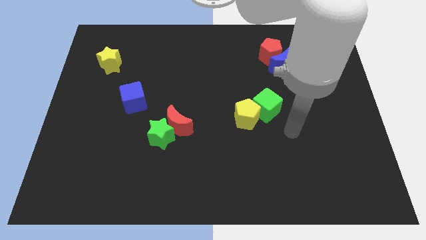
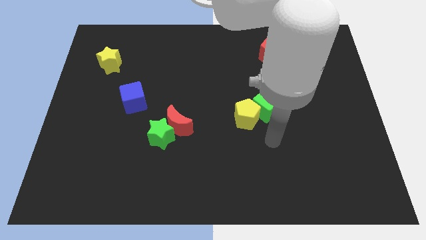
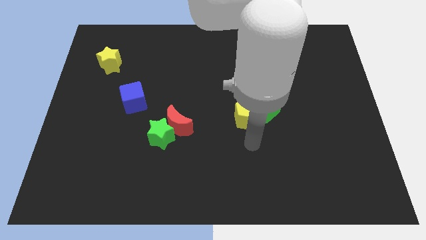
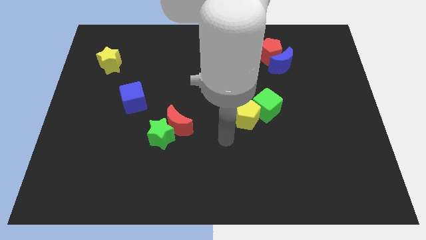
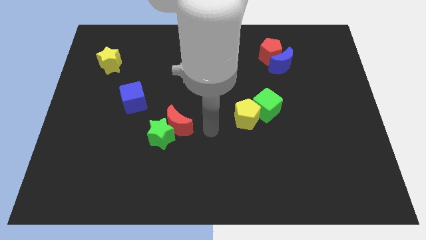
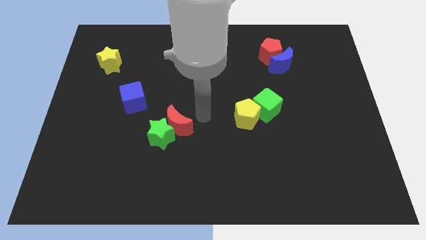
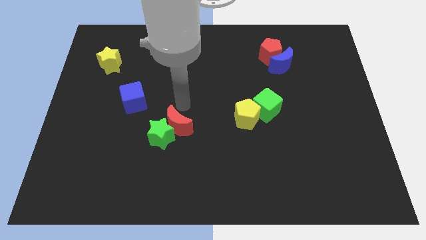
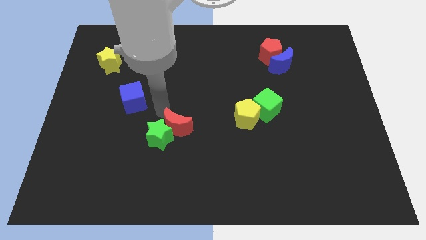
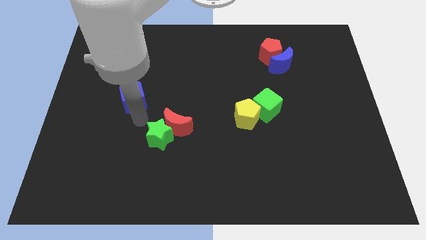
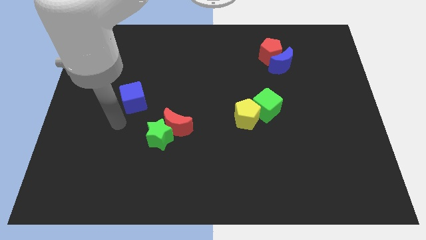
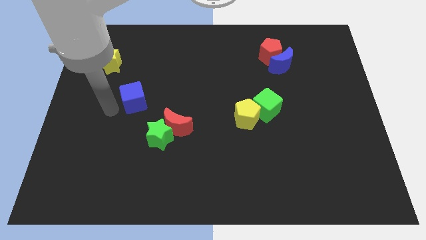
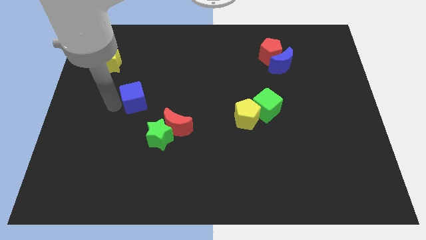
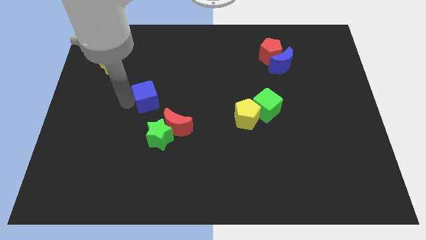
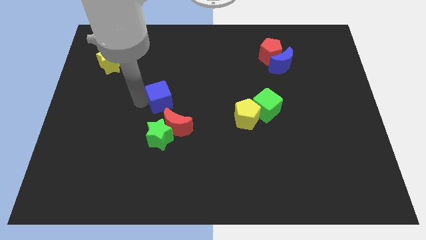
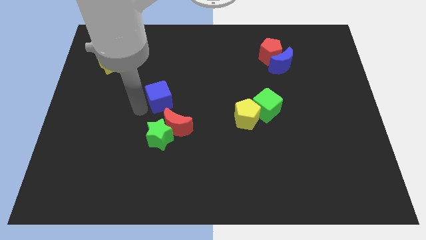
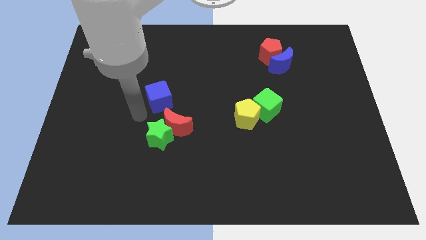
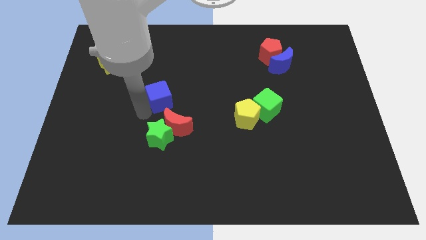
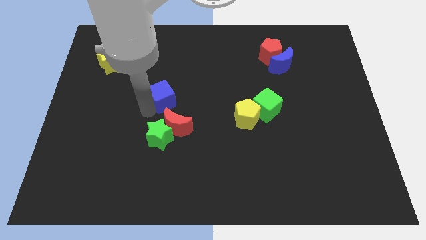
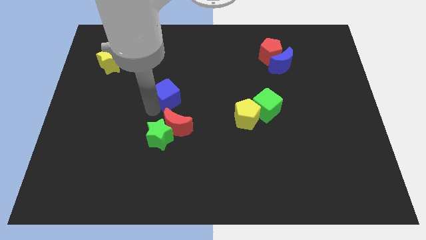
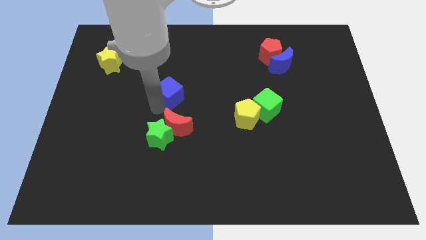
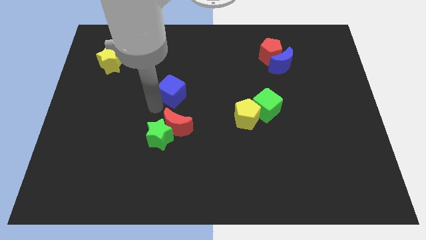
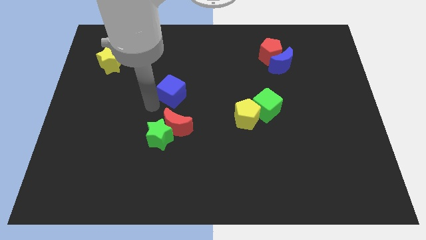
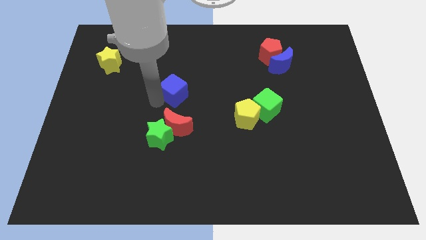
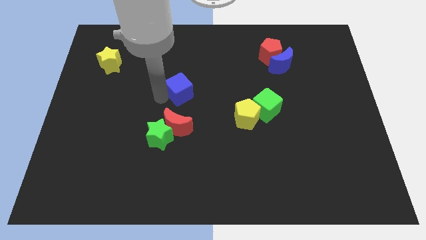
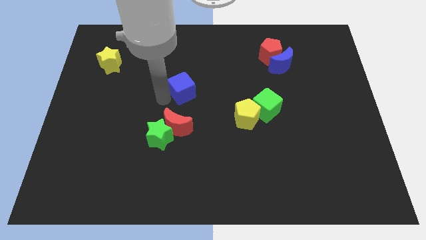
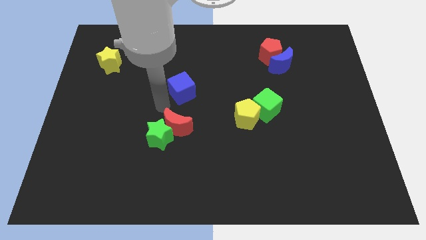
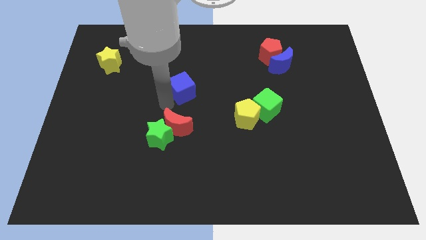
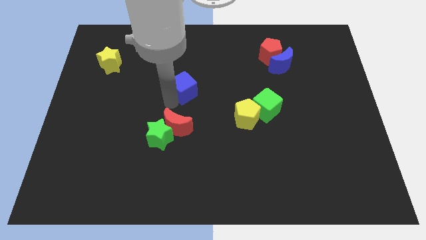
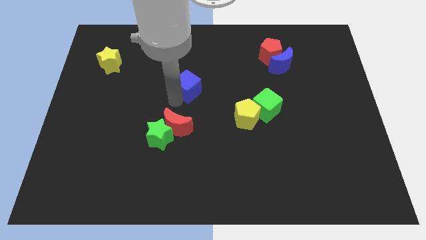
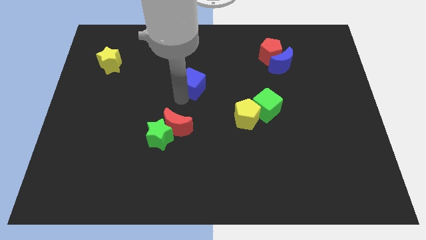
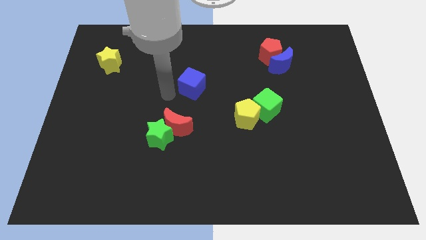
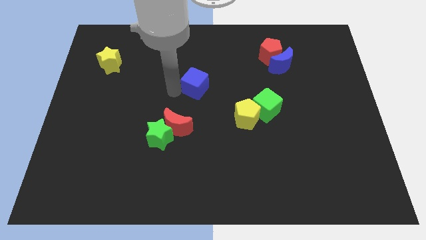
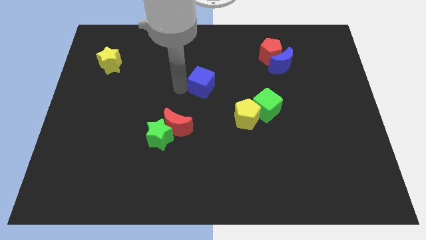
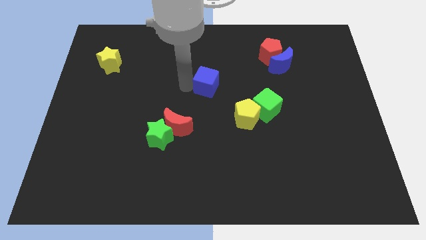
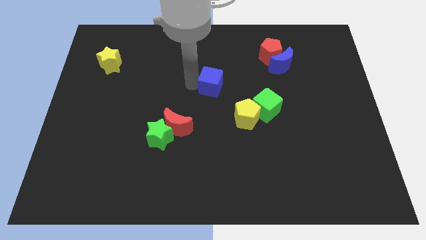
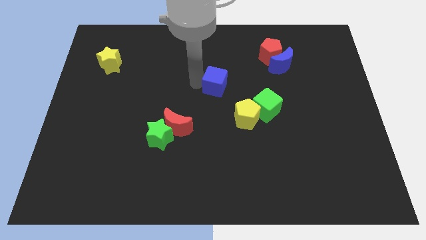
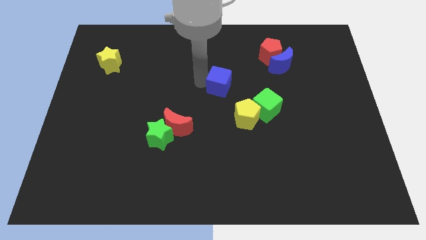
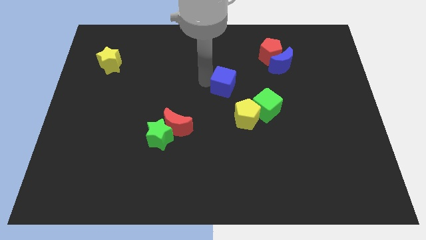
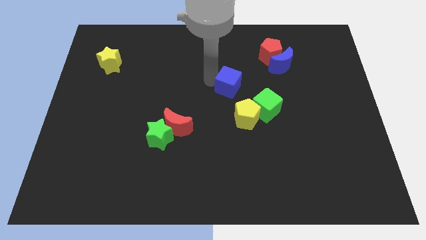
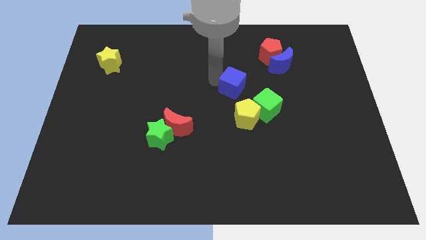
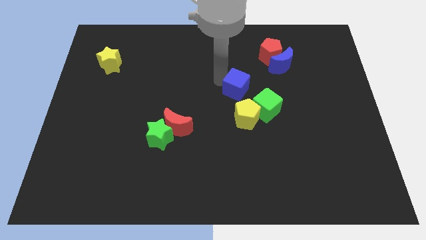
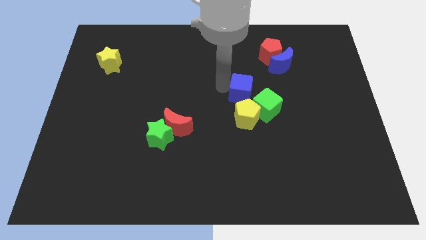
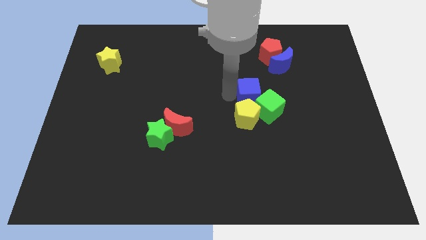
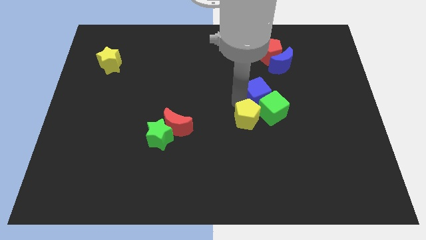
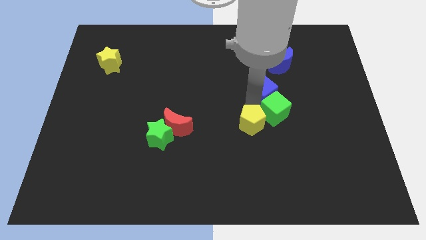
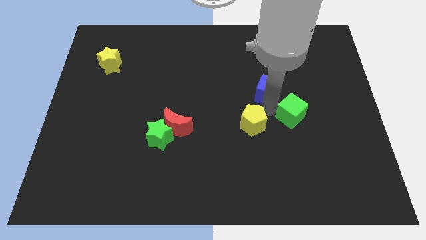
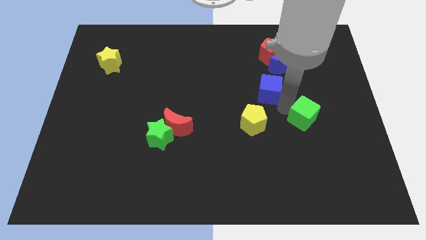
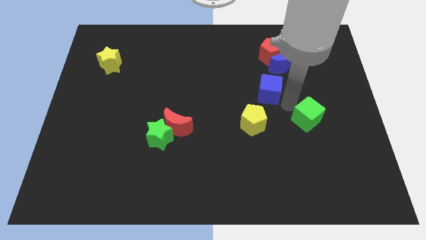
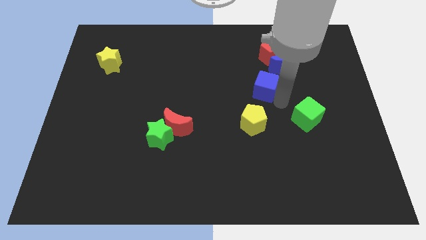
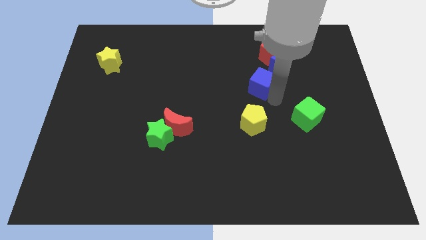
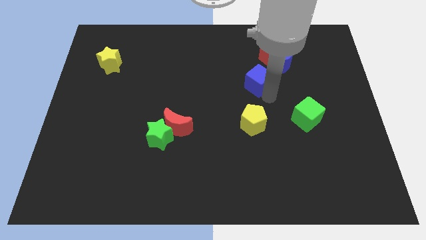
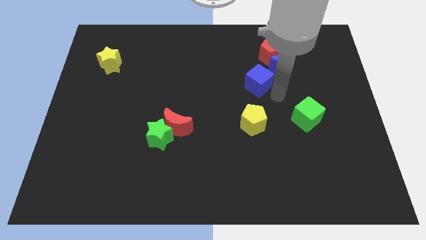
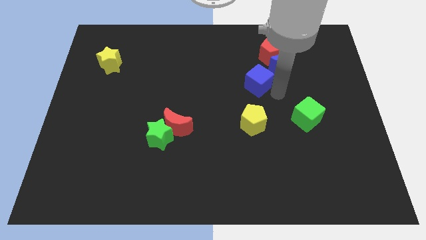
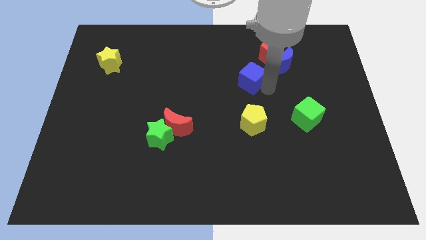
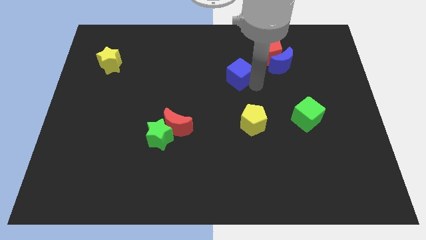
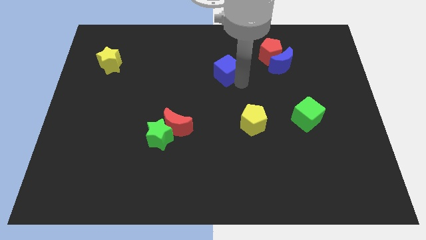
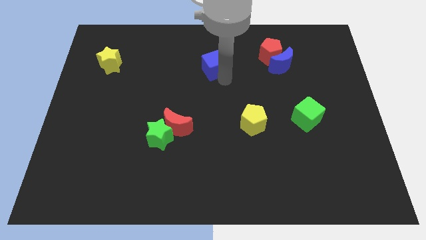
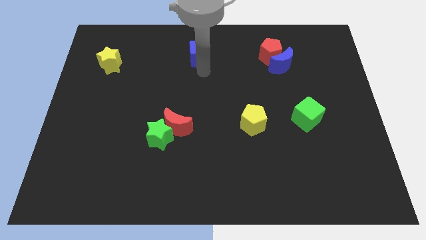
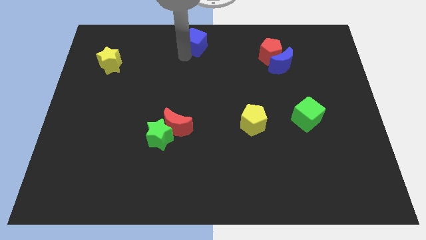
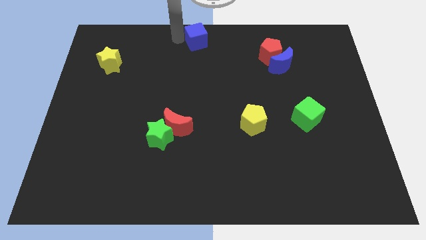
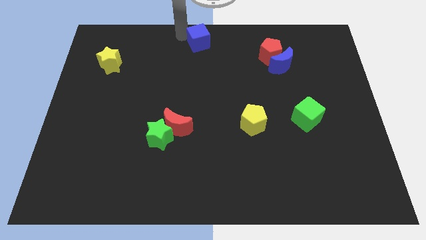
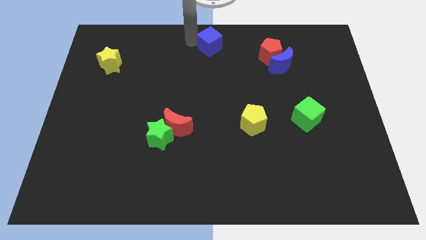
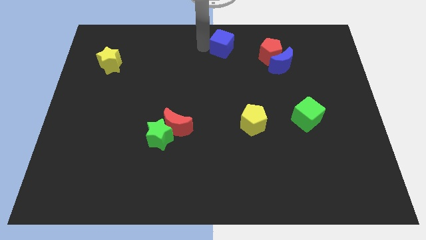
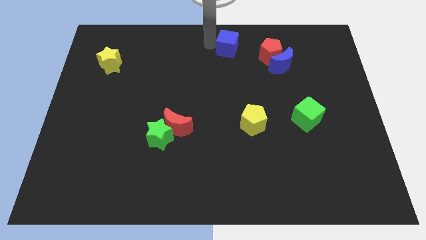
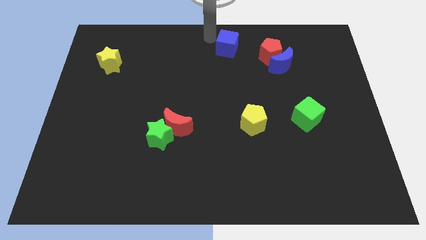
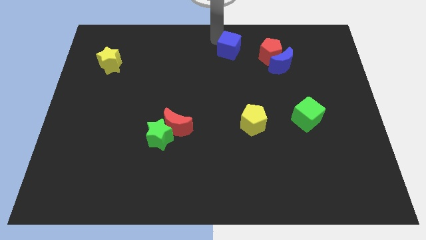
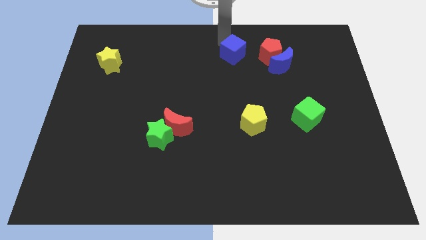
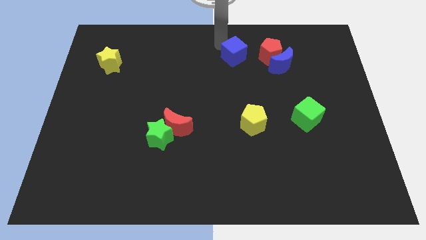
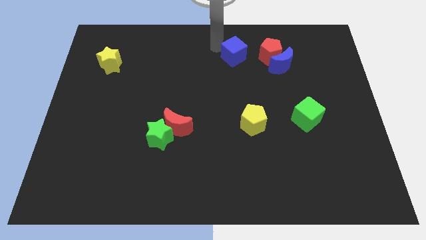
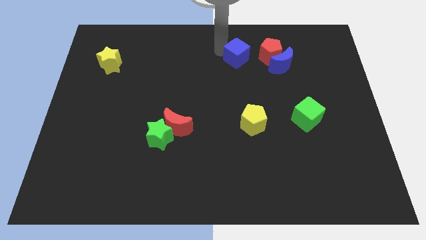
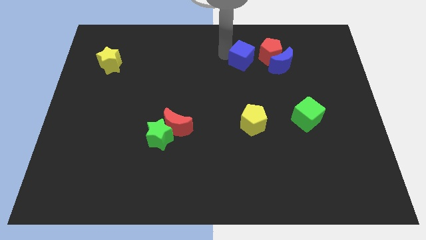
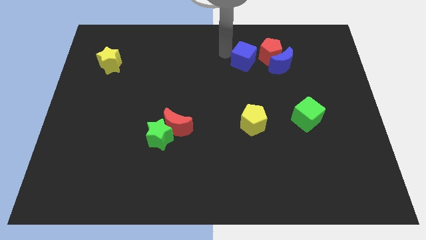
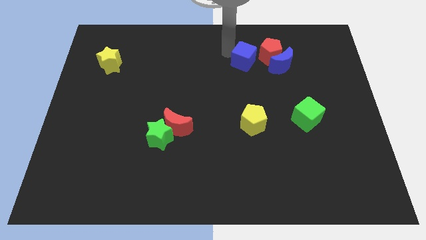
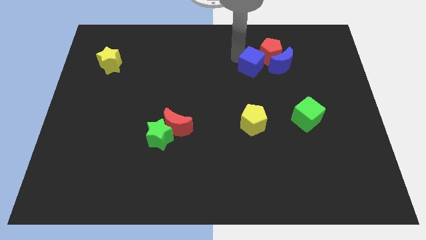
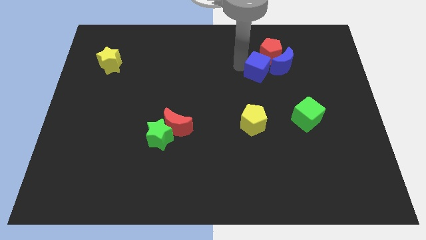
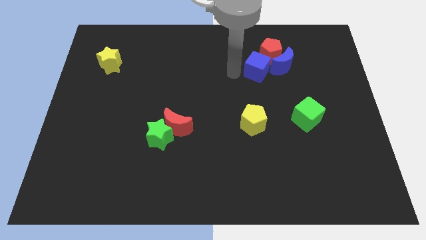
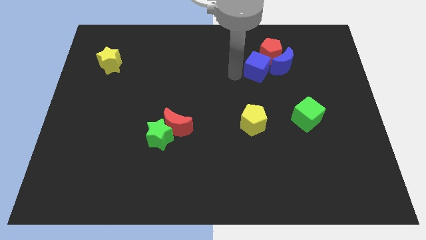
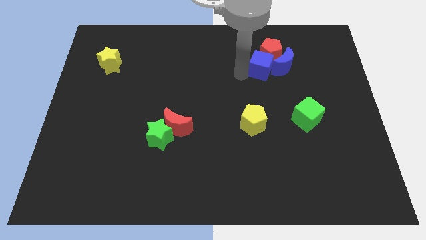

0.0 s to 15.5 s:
put the blue cube to the blue moon
